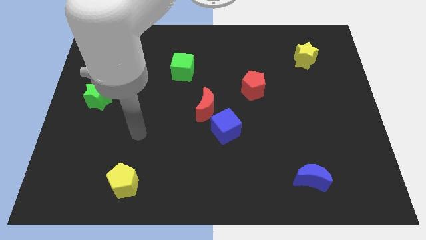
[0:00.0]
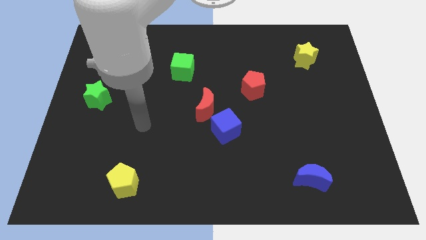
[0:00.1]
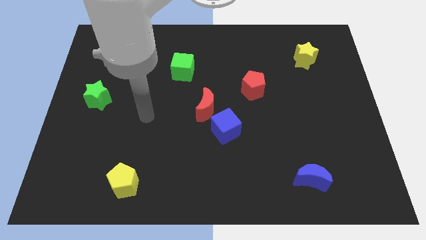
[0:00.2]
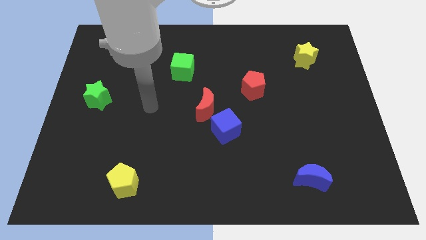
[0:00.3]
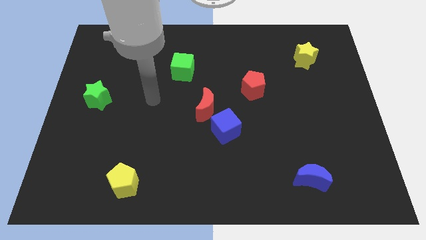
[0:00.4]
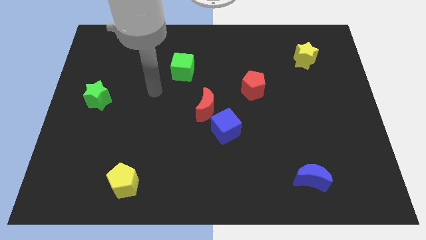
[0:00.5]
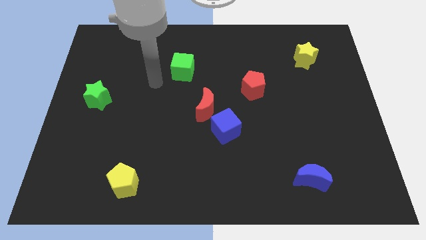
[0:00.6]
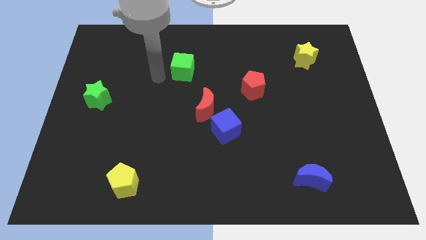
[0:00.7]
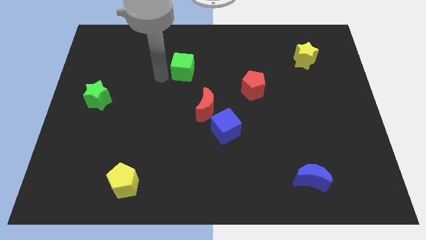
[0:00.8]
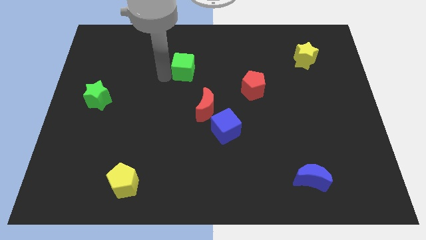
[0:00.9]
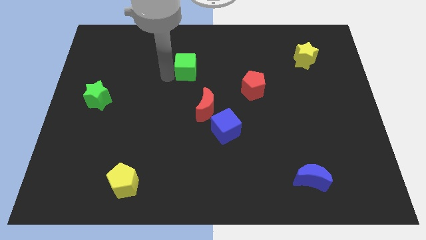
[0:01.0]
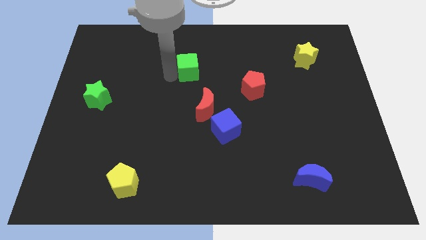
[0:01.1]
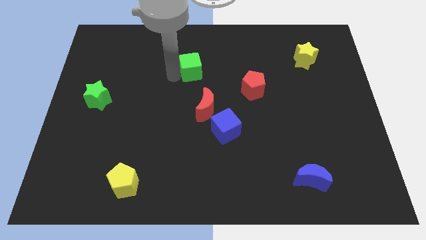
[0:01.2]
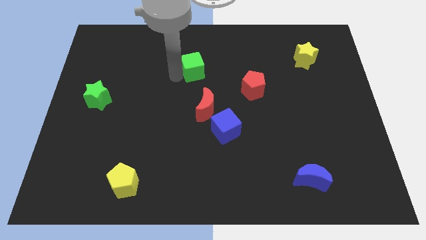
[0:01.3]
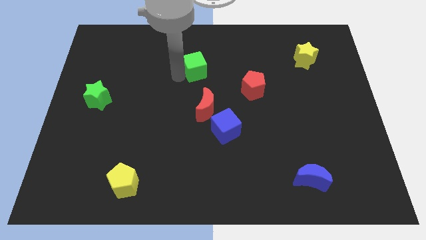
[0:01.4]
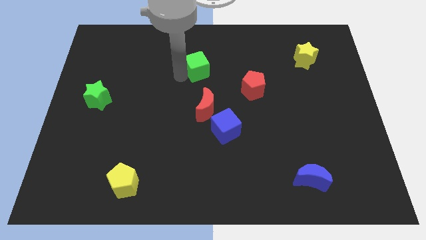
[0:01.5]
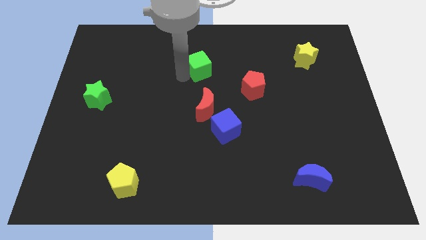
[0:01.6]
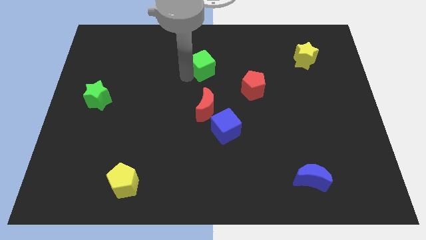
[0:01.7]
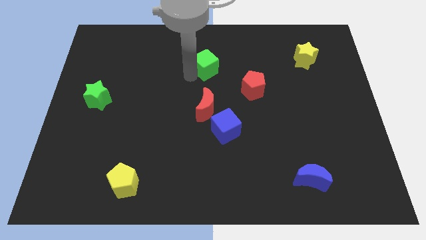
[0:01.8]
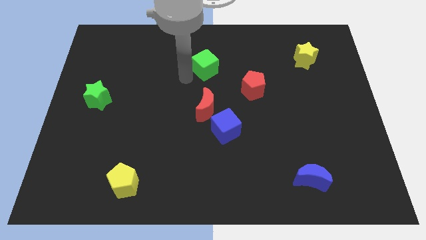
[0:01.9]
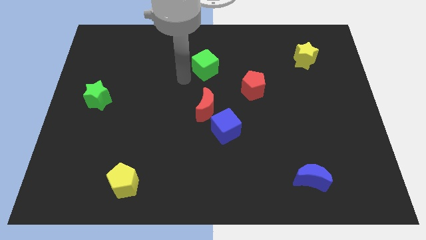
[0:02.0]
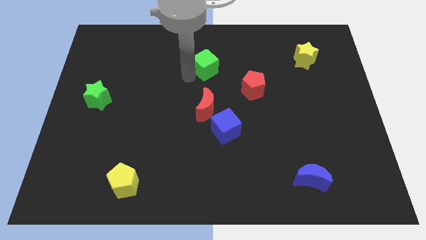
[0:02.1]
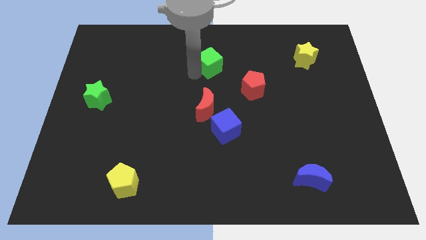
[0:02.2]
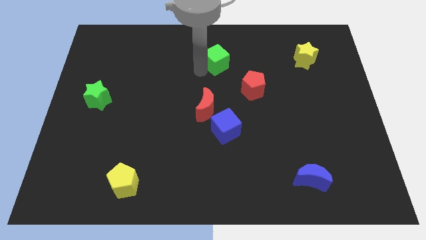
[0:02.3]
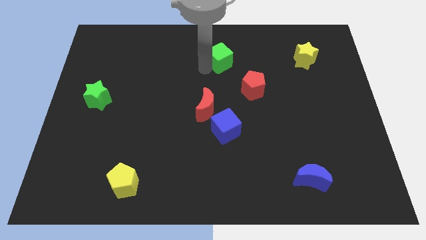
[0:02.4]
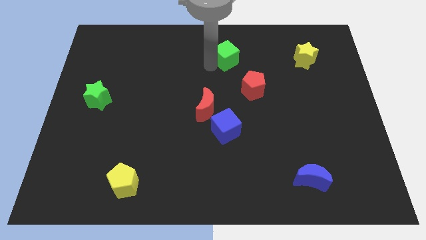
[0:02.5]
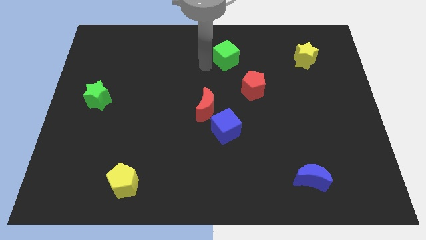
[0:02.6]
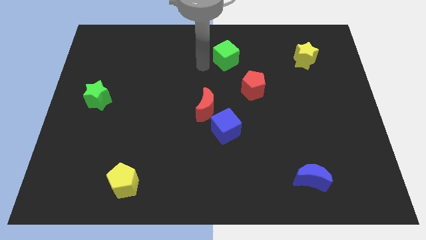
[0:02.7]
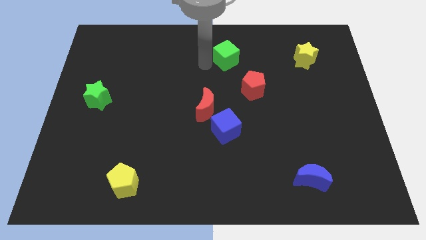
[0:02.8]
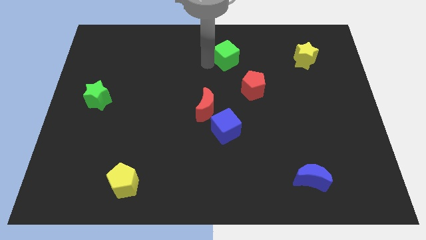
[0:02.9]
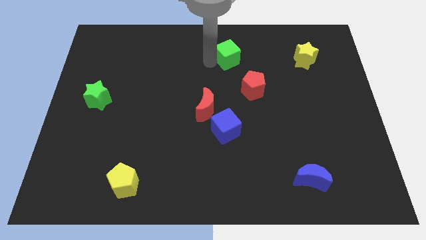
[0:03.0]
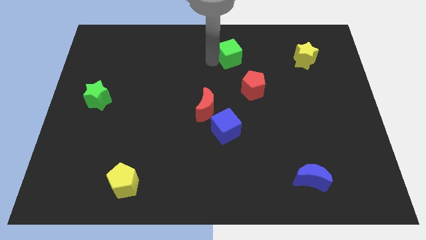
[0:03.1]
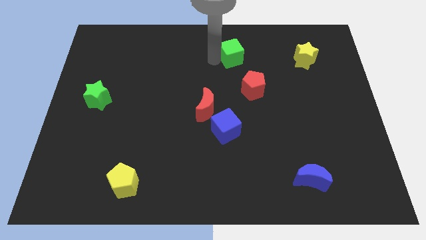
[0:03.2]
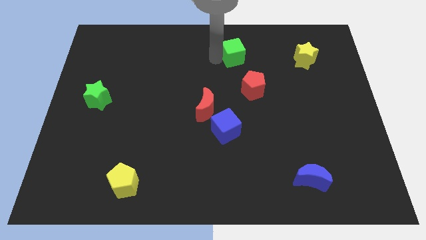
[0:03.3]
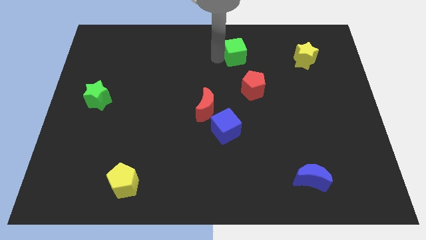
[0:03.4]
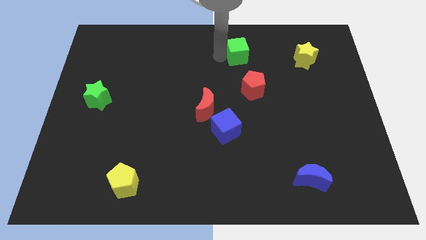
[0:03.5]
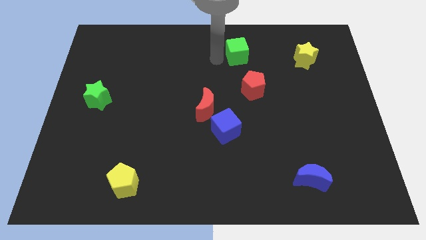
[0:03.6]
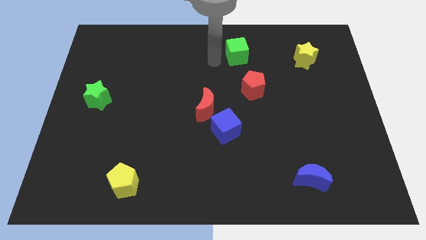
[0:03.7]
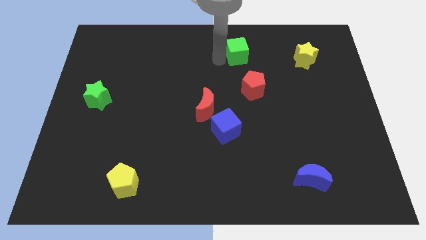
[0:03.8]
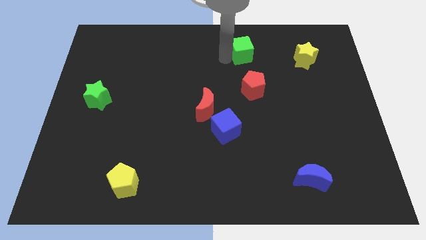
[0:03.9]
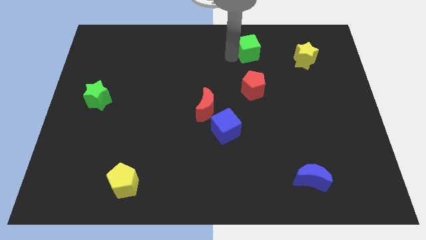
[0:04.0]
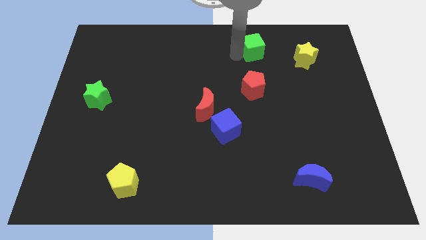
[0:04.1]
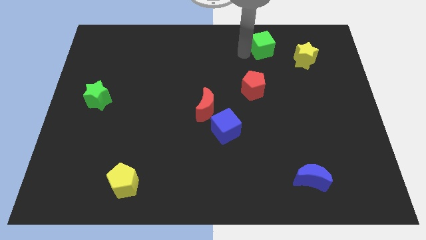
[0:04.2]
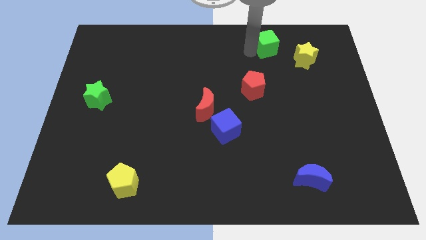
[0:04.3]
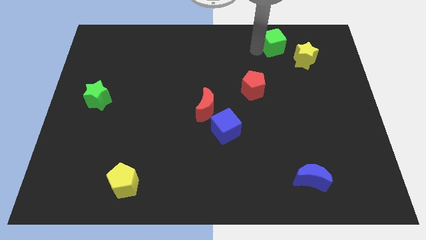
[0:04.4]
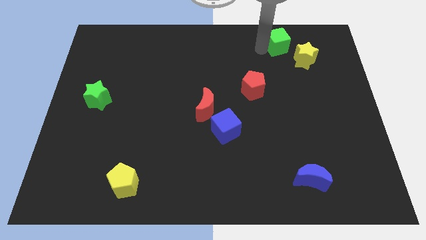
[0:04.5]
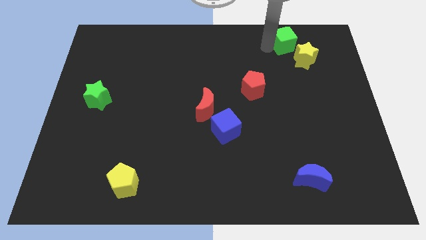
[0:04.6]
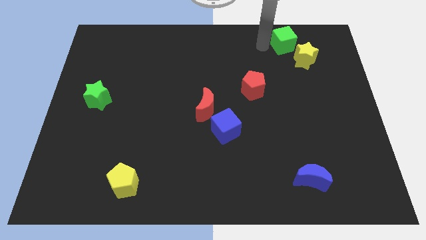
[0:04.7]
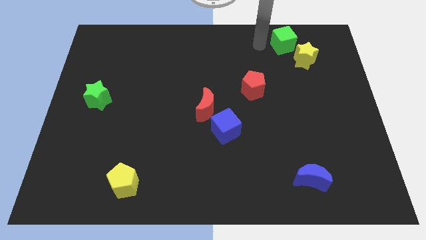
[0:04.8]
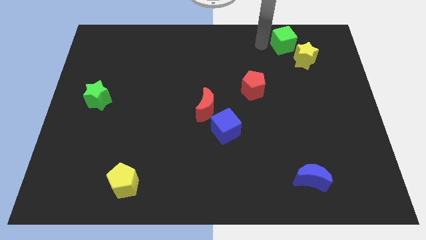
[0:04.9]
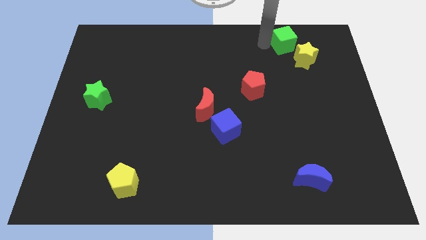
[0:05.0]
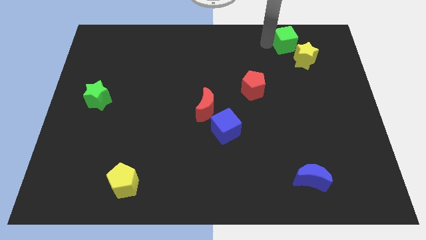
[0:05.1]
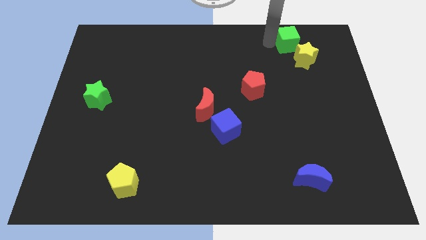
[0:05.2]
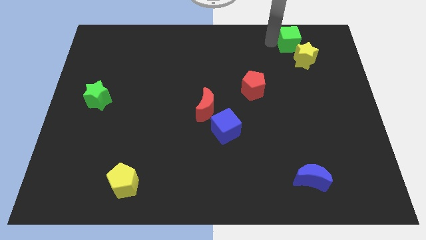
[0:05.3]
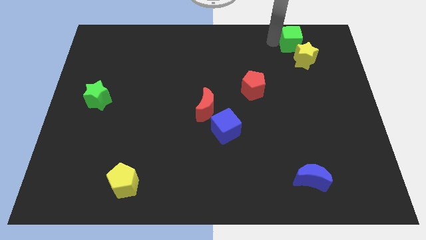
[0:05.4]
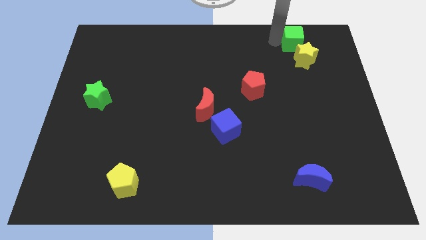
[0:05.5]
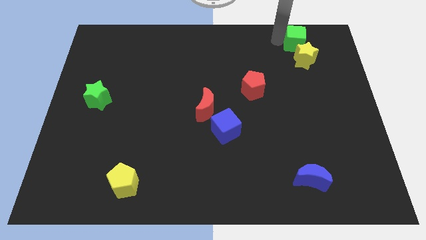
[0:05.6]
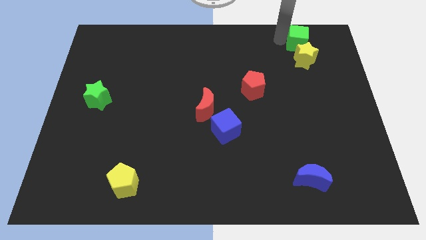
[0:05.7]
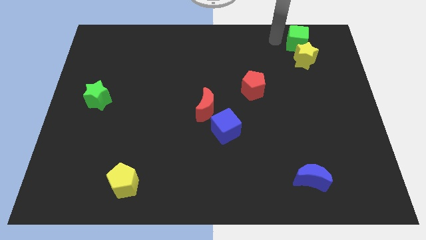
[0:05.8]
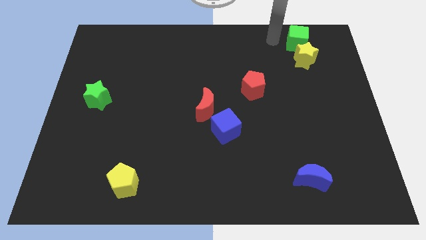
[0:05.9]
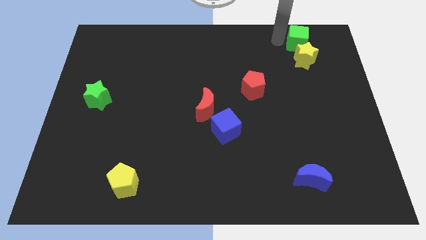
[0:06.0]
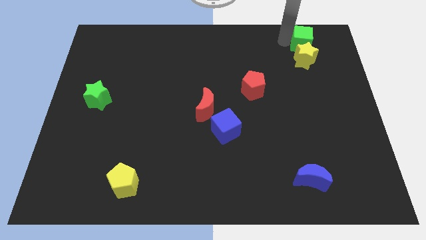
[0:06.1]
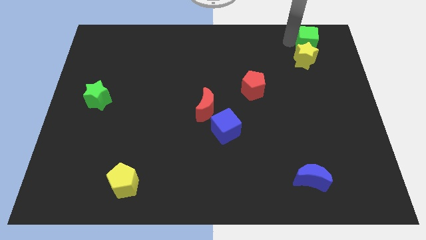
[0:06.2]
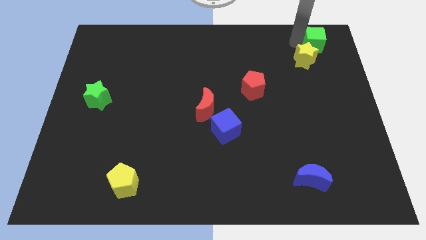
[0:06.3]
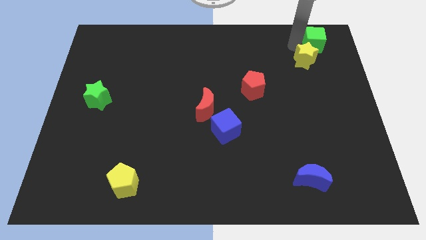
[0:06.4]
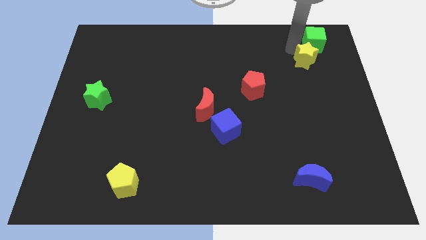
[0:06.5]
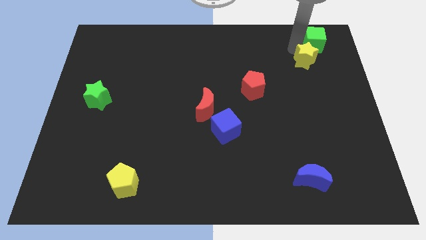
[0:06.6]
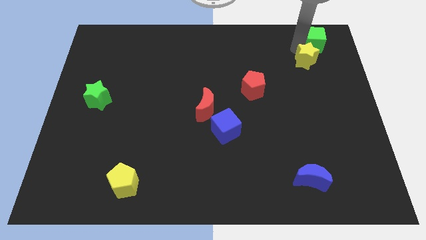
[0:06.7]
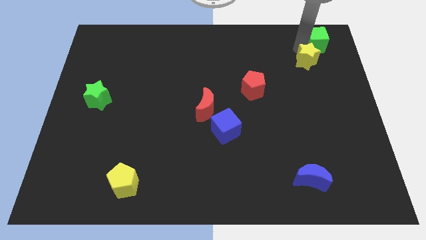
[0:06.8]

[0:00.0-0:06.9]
put the green cube to the top right of the board
